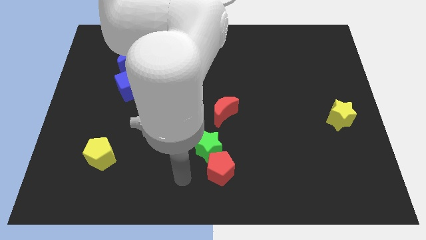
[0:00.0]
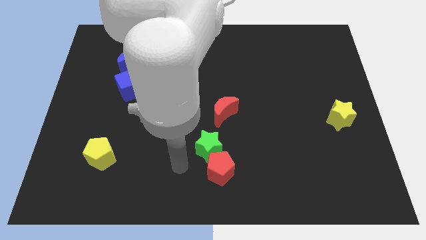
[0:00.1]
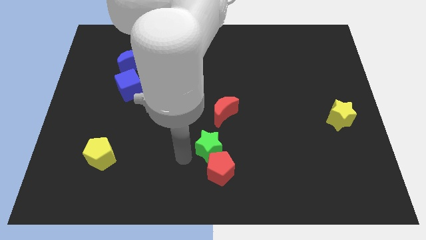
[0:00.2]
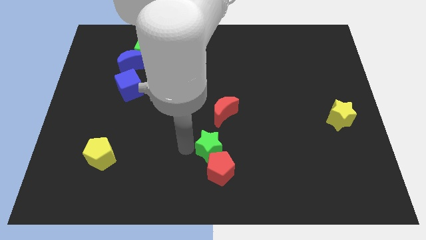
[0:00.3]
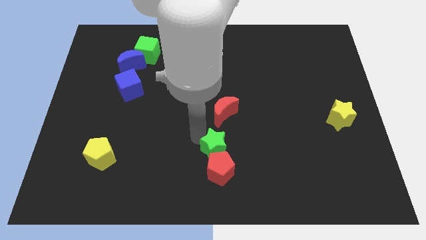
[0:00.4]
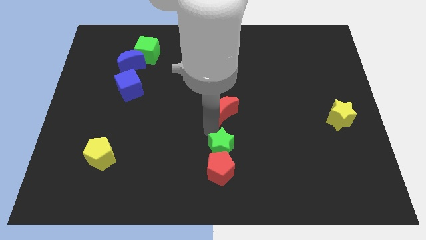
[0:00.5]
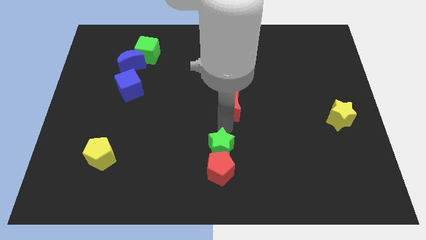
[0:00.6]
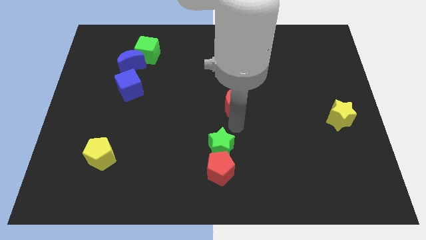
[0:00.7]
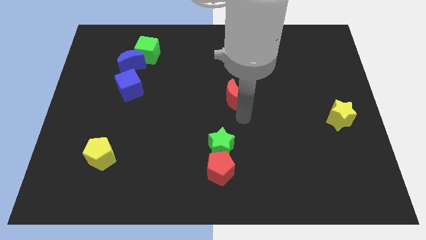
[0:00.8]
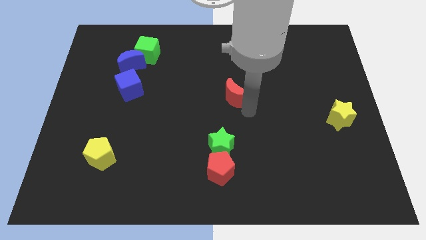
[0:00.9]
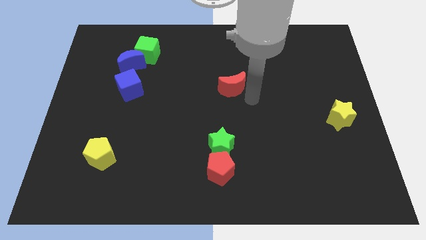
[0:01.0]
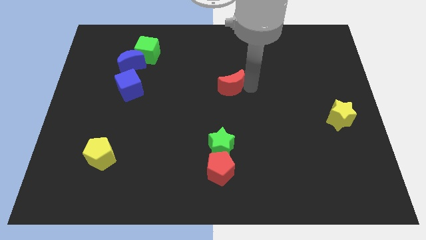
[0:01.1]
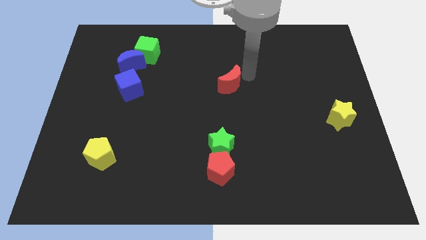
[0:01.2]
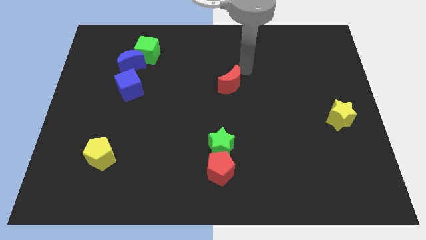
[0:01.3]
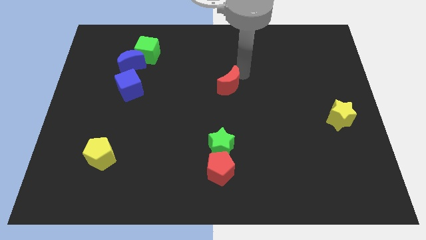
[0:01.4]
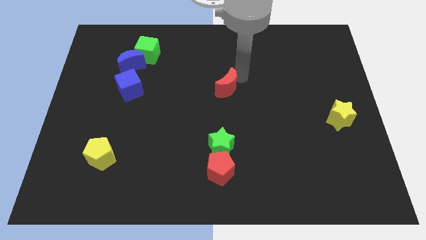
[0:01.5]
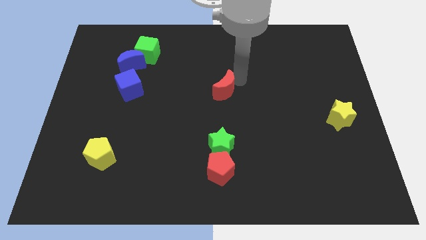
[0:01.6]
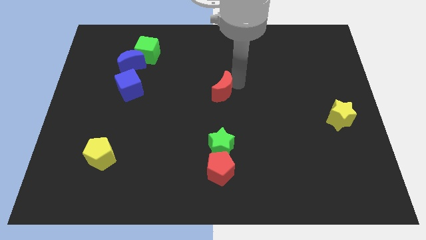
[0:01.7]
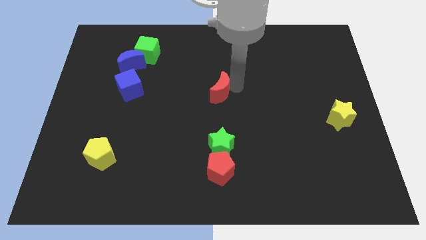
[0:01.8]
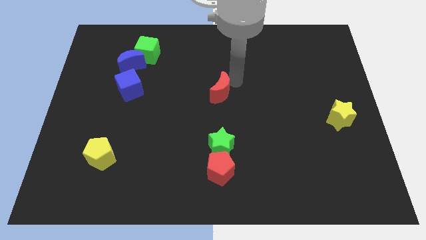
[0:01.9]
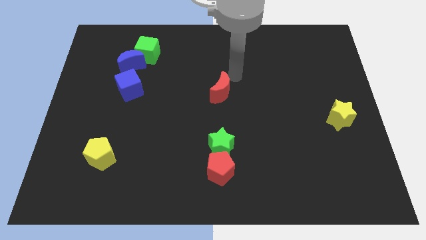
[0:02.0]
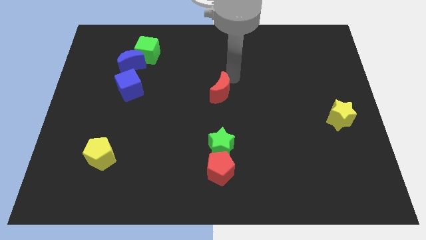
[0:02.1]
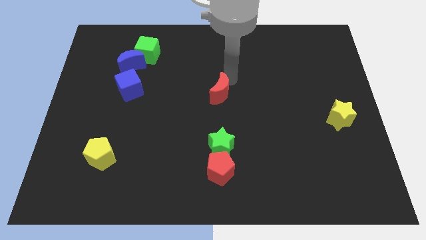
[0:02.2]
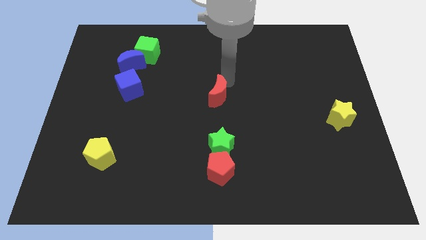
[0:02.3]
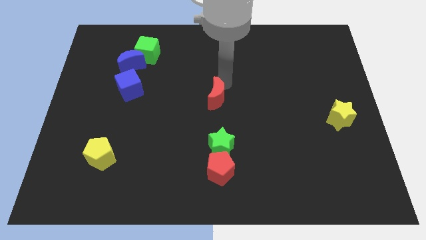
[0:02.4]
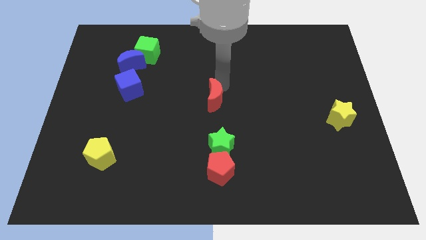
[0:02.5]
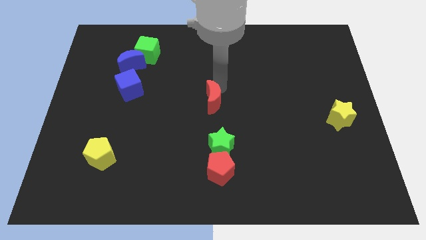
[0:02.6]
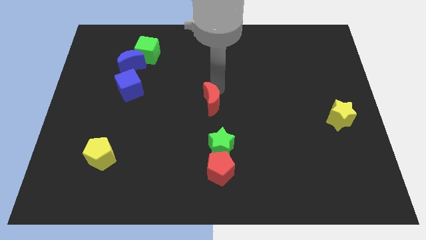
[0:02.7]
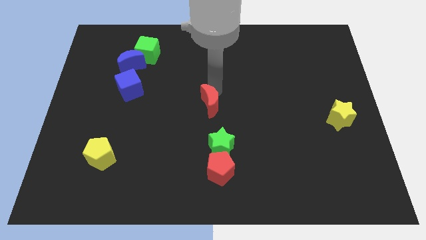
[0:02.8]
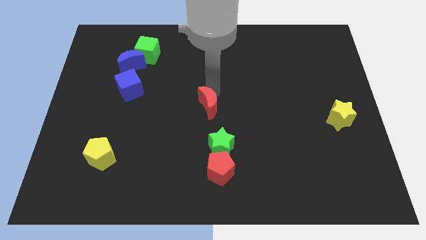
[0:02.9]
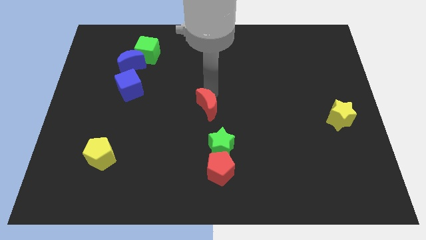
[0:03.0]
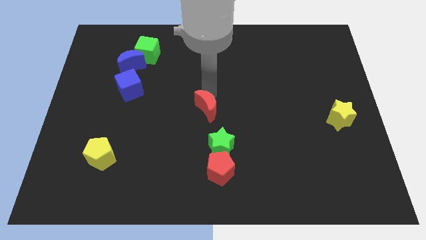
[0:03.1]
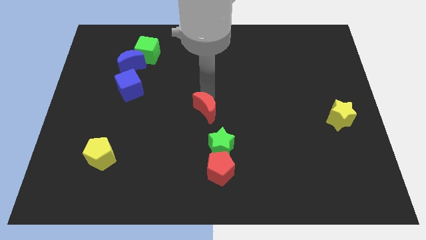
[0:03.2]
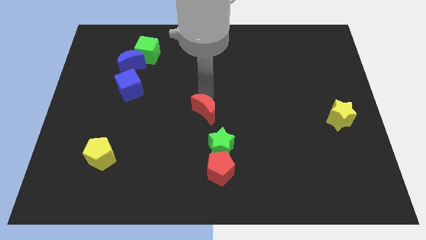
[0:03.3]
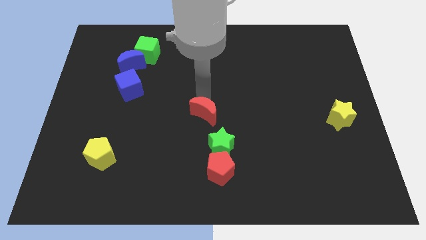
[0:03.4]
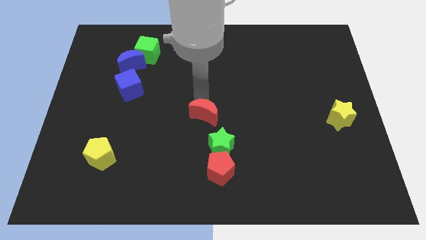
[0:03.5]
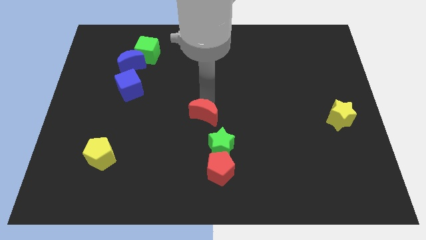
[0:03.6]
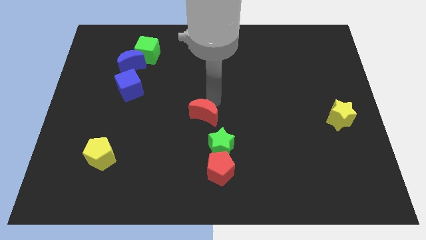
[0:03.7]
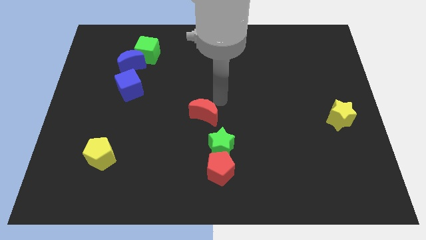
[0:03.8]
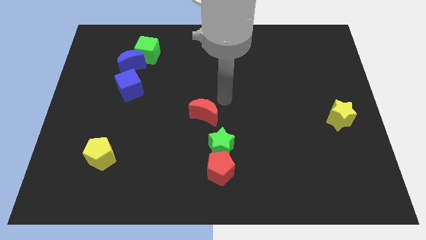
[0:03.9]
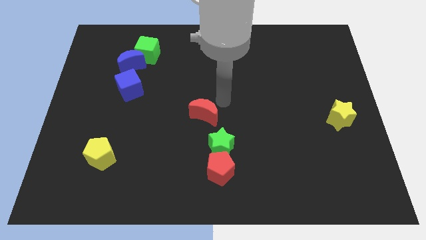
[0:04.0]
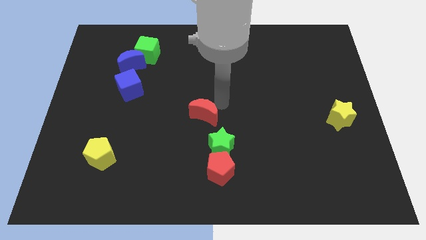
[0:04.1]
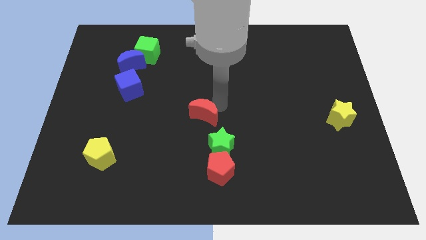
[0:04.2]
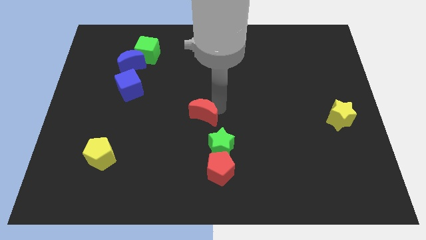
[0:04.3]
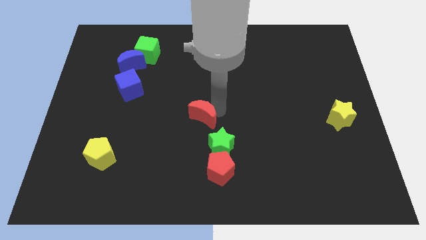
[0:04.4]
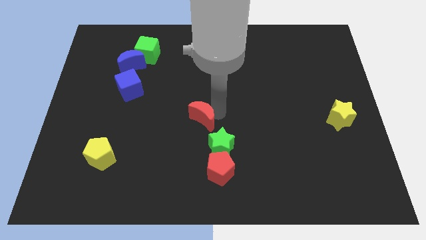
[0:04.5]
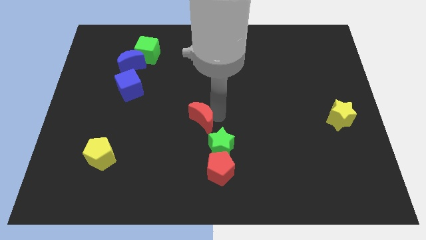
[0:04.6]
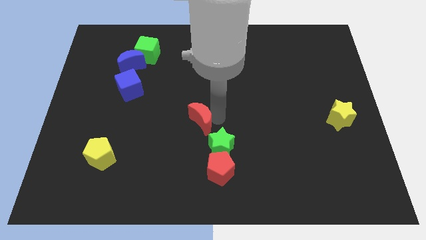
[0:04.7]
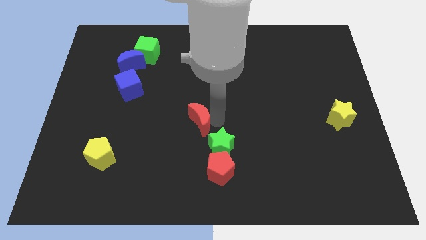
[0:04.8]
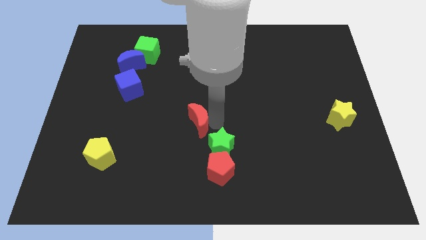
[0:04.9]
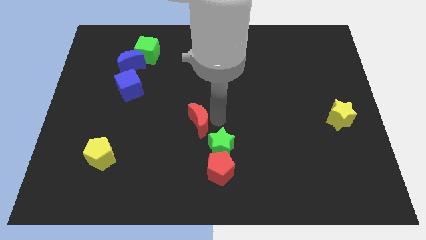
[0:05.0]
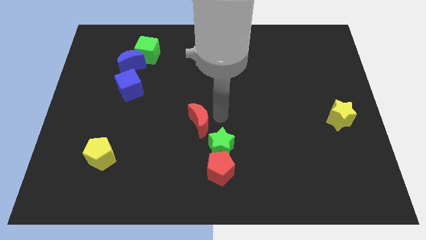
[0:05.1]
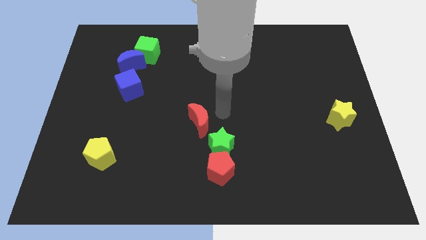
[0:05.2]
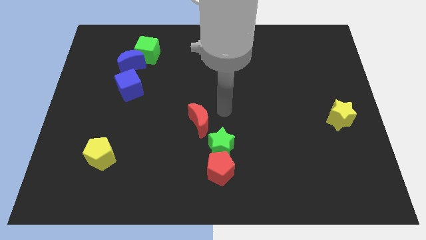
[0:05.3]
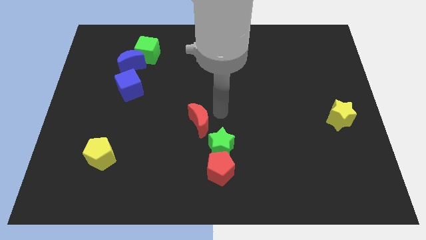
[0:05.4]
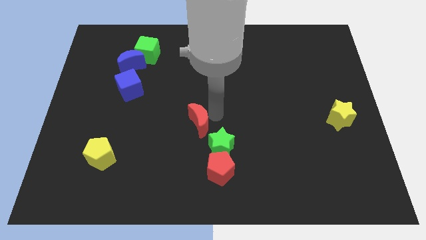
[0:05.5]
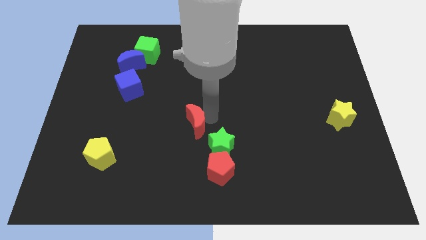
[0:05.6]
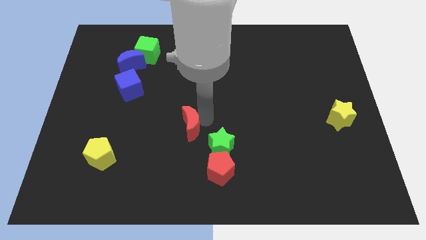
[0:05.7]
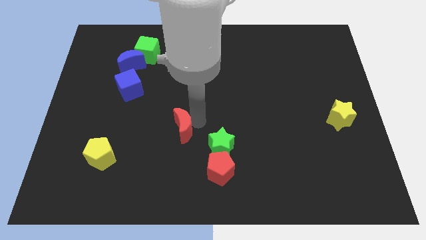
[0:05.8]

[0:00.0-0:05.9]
put the red moon left of the green star

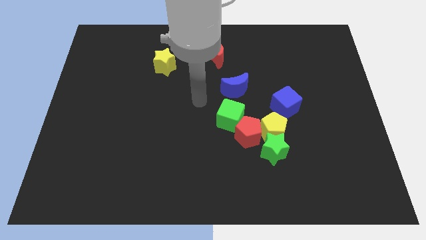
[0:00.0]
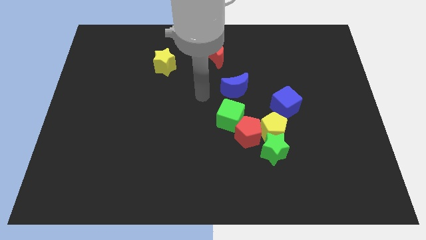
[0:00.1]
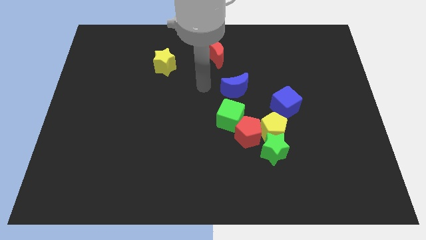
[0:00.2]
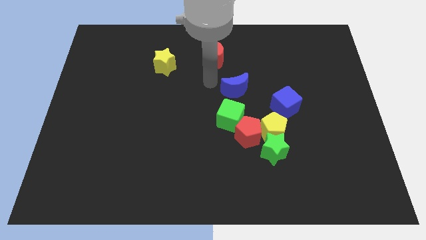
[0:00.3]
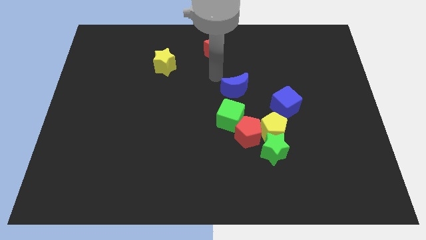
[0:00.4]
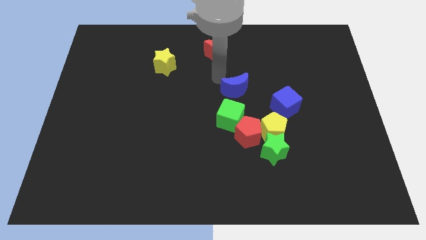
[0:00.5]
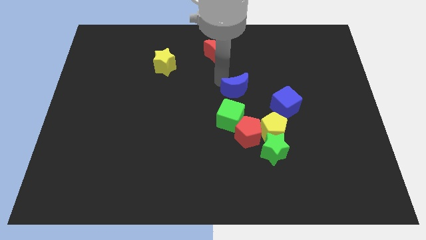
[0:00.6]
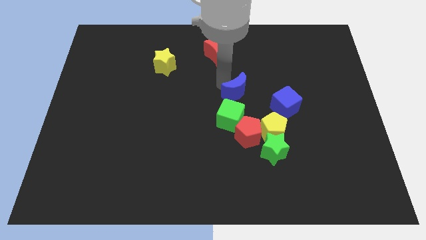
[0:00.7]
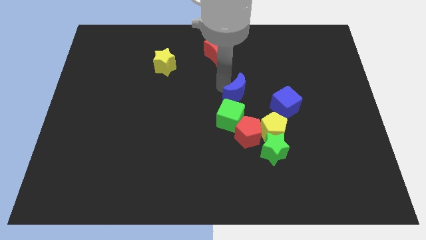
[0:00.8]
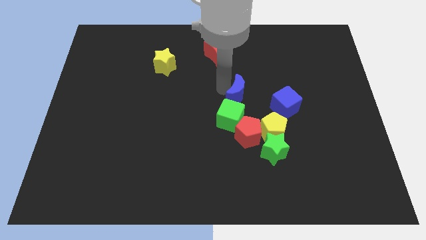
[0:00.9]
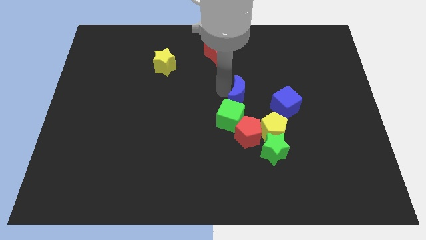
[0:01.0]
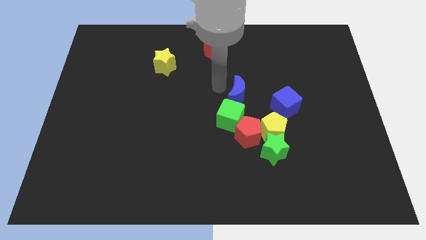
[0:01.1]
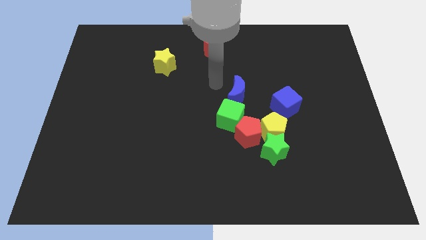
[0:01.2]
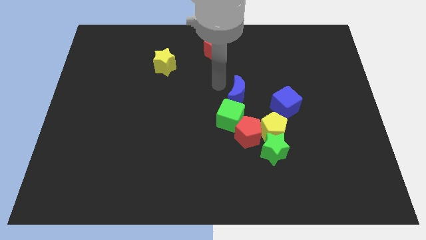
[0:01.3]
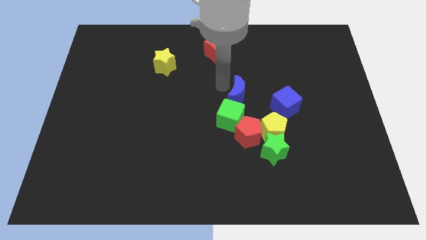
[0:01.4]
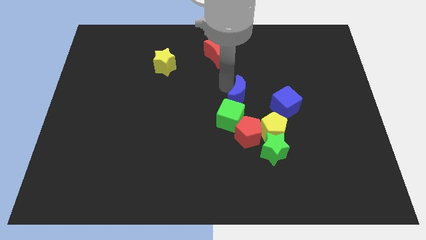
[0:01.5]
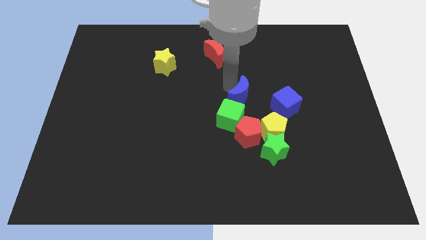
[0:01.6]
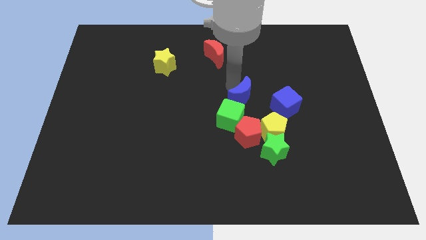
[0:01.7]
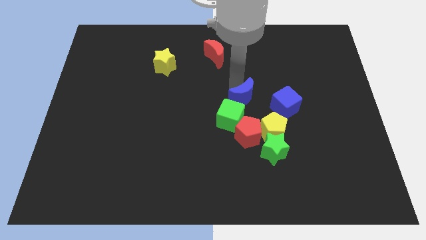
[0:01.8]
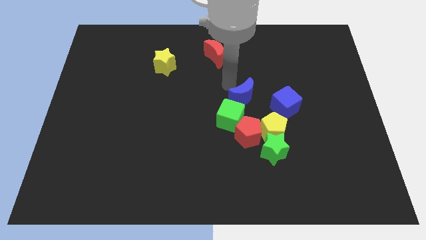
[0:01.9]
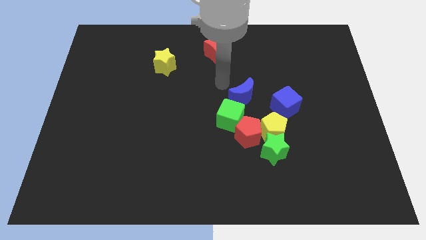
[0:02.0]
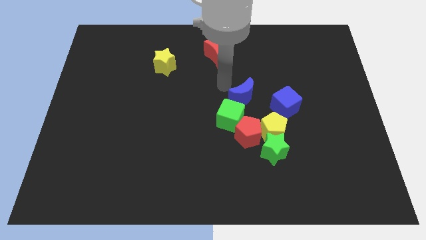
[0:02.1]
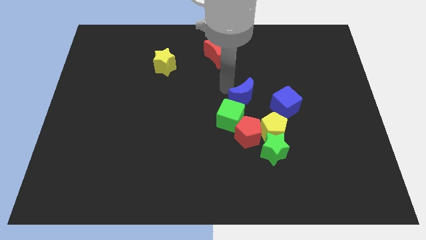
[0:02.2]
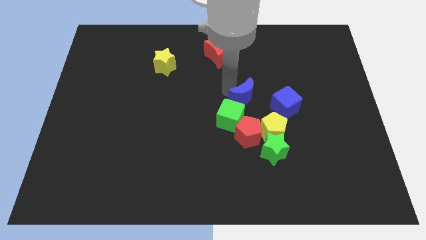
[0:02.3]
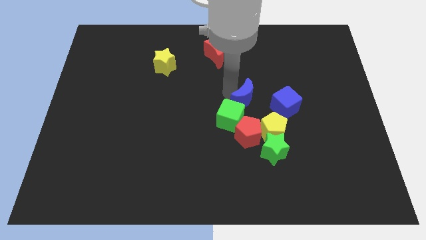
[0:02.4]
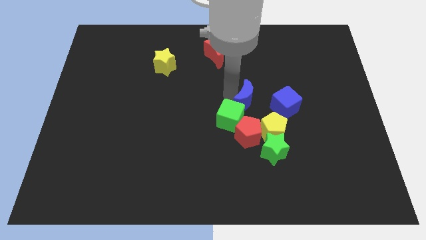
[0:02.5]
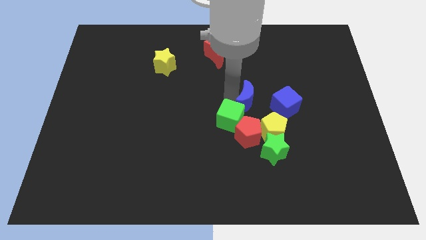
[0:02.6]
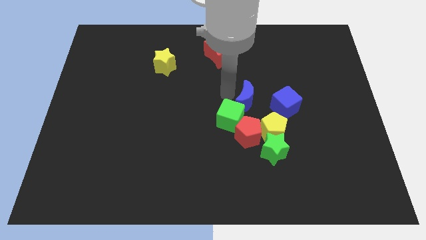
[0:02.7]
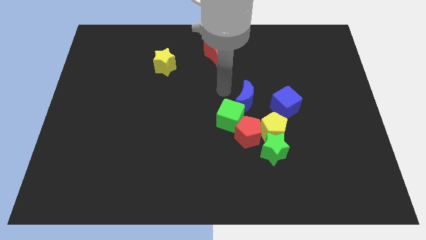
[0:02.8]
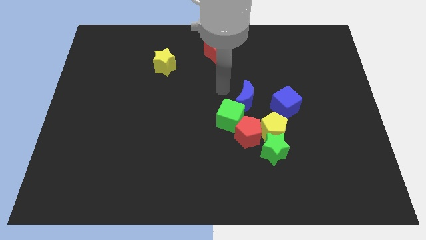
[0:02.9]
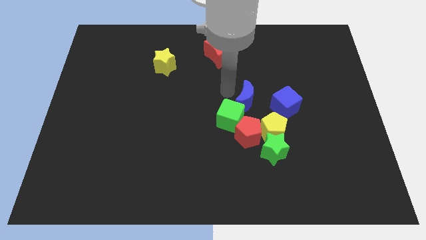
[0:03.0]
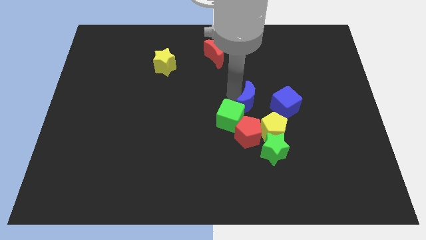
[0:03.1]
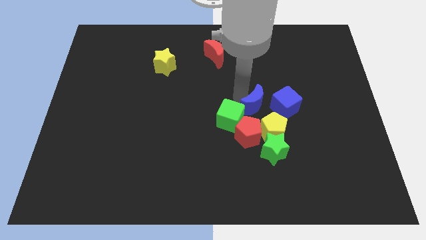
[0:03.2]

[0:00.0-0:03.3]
slide the blue moon to the top side of the green star
